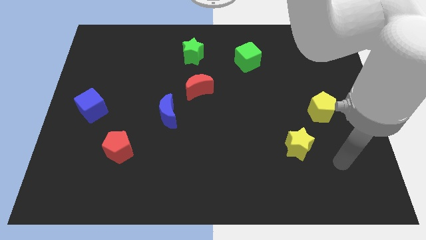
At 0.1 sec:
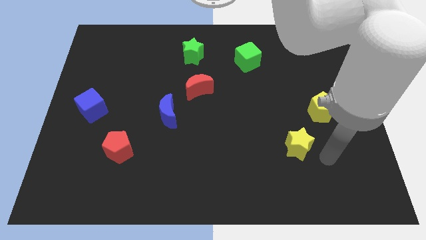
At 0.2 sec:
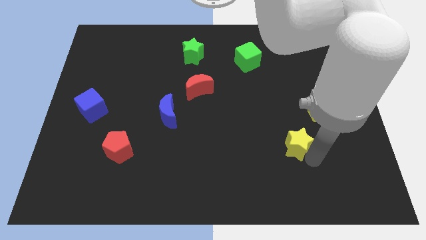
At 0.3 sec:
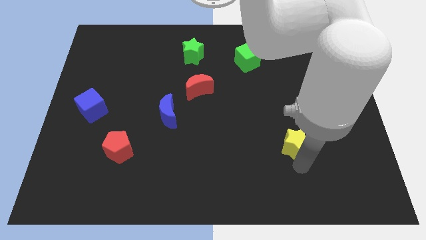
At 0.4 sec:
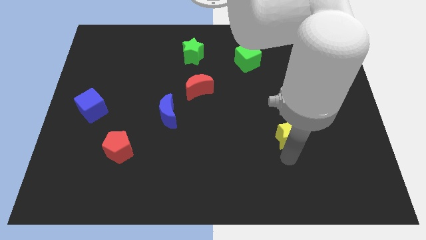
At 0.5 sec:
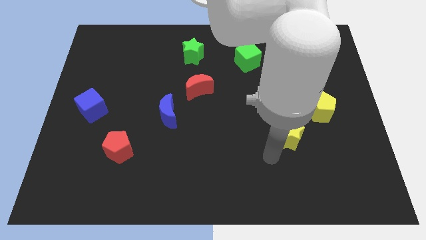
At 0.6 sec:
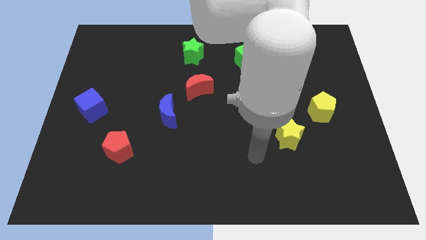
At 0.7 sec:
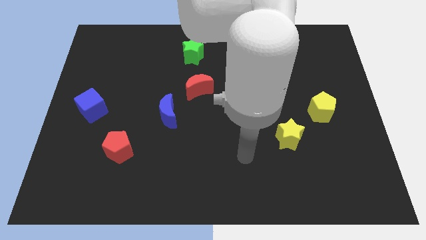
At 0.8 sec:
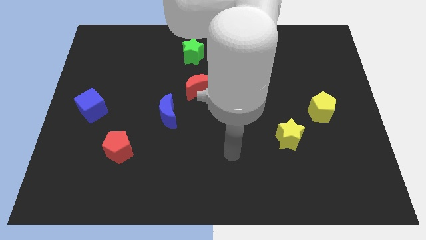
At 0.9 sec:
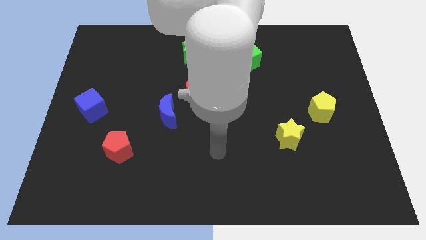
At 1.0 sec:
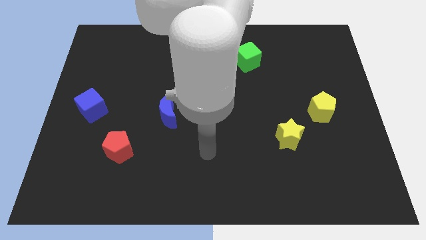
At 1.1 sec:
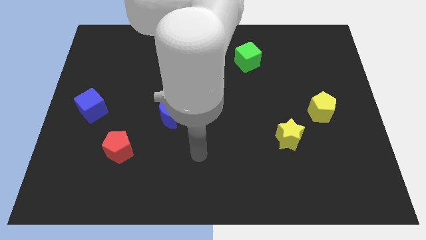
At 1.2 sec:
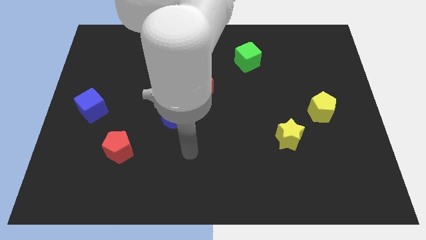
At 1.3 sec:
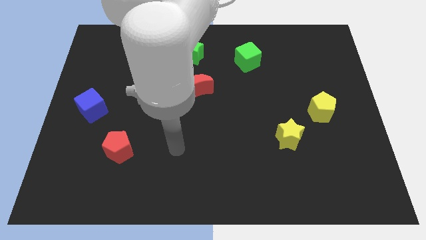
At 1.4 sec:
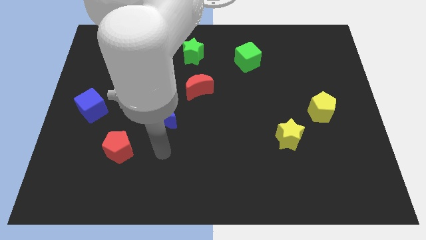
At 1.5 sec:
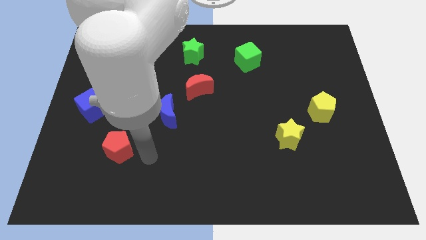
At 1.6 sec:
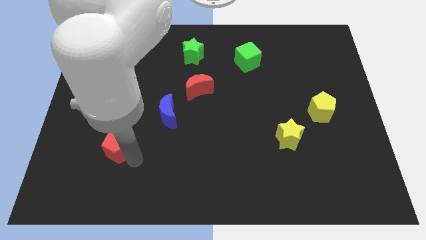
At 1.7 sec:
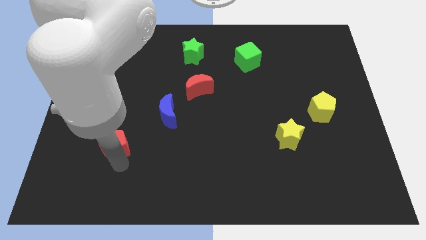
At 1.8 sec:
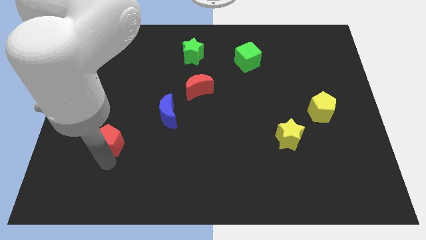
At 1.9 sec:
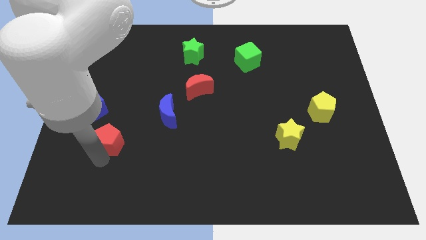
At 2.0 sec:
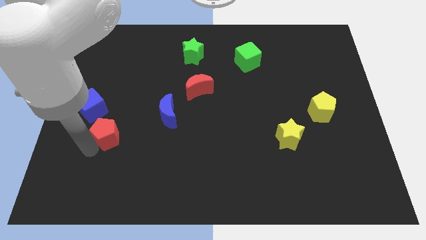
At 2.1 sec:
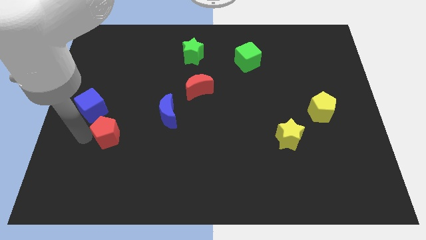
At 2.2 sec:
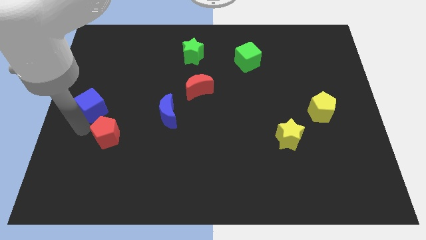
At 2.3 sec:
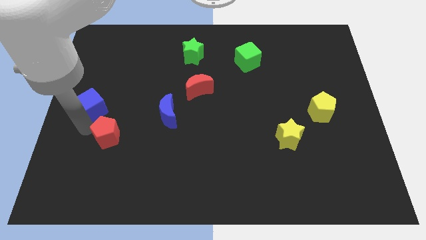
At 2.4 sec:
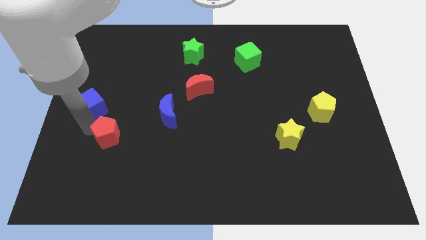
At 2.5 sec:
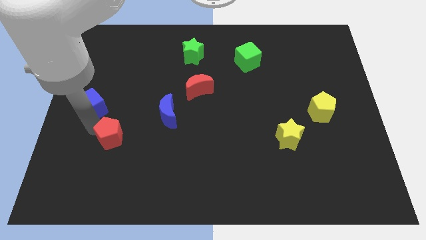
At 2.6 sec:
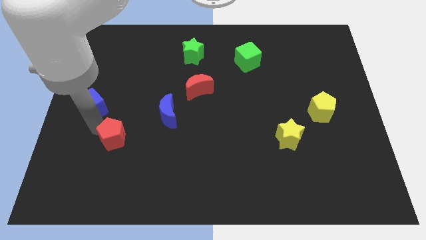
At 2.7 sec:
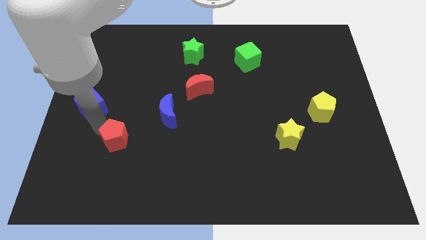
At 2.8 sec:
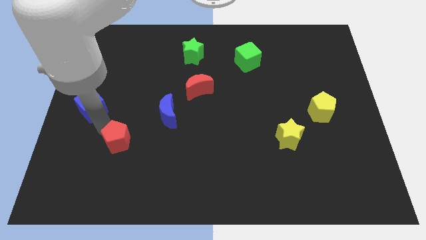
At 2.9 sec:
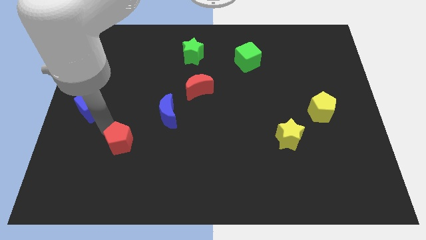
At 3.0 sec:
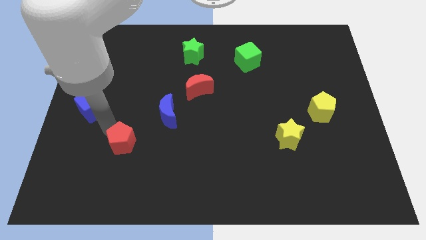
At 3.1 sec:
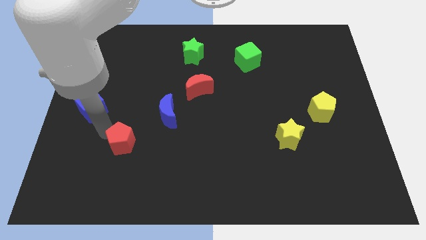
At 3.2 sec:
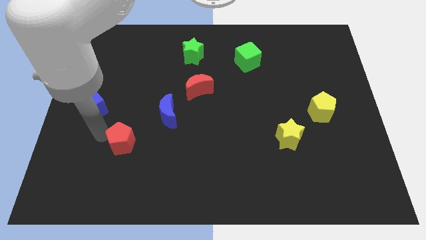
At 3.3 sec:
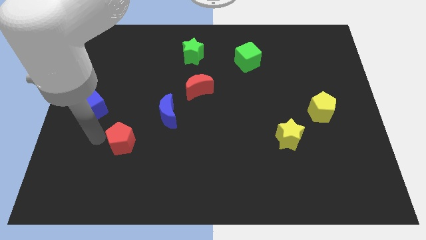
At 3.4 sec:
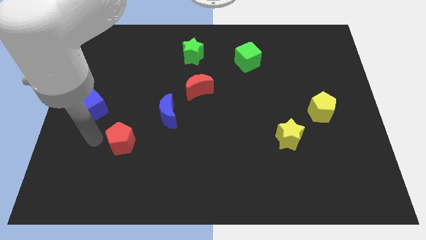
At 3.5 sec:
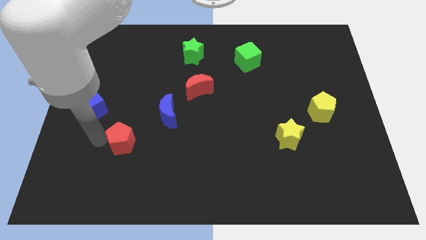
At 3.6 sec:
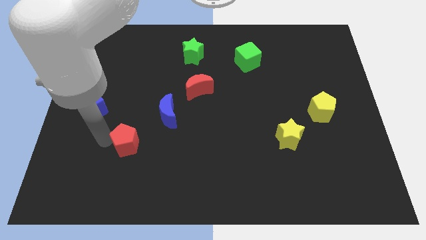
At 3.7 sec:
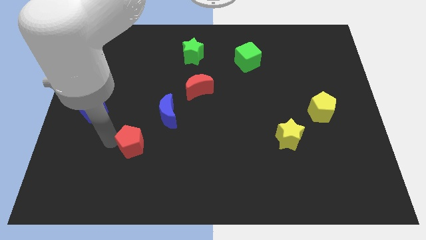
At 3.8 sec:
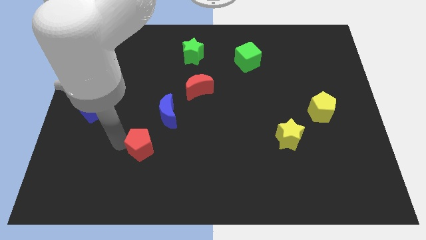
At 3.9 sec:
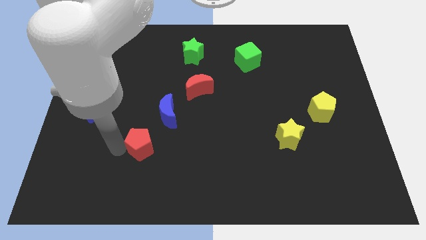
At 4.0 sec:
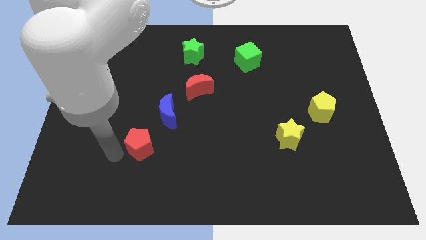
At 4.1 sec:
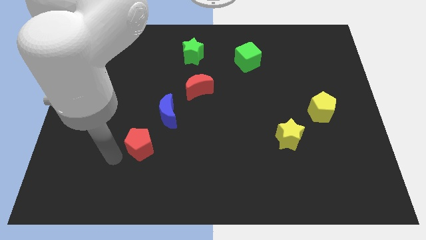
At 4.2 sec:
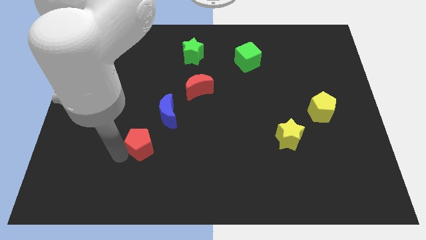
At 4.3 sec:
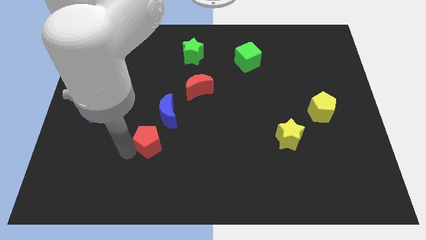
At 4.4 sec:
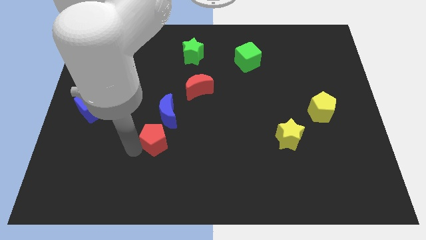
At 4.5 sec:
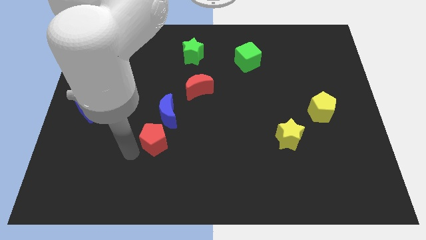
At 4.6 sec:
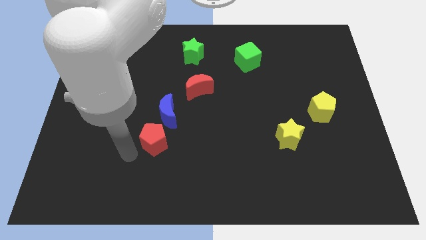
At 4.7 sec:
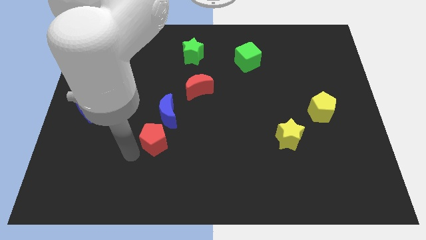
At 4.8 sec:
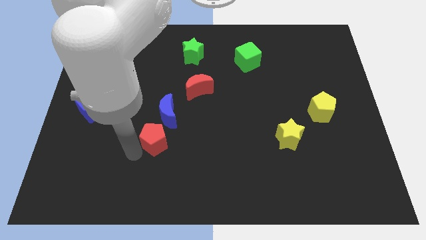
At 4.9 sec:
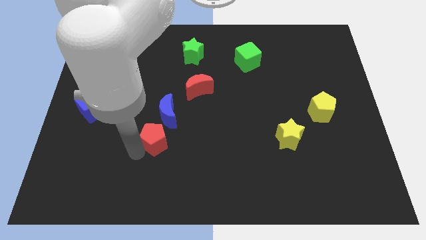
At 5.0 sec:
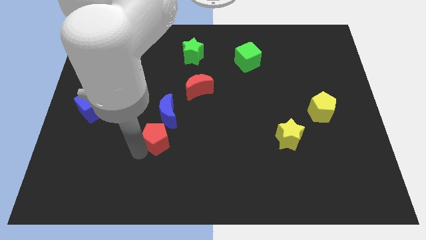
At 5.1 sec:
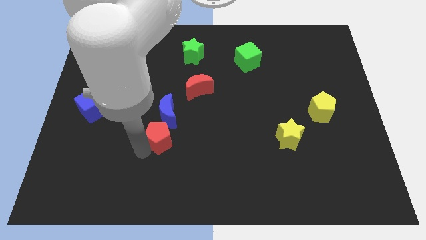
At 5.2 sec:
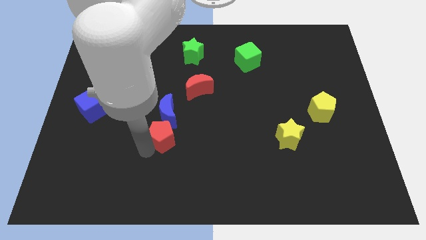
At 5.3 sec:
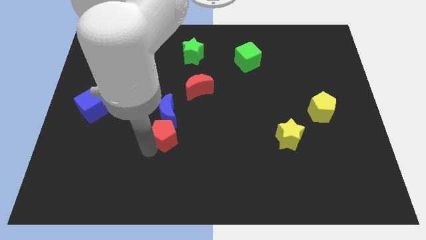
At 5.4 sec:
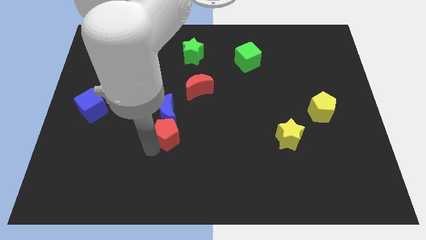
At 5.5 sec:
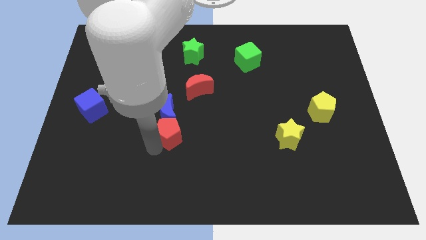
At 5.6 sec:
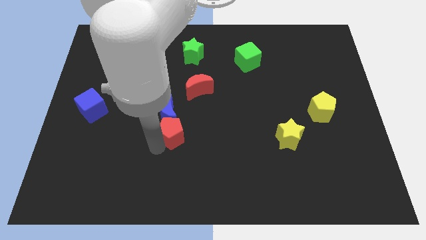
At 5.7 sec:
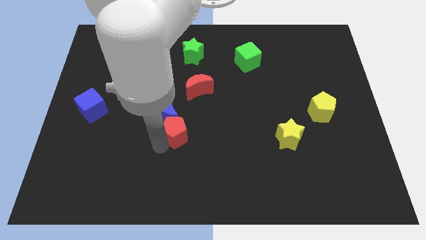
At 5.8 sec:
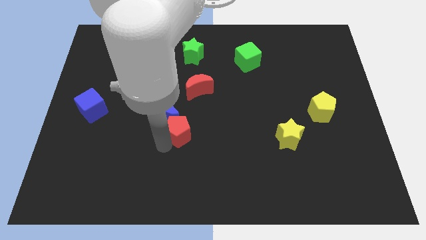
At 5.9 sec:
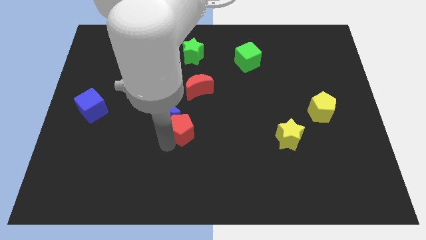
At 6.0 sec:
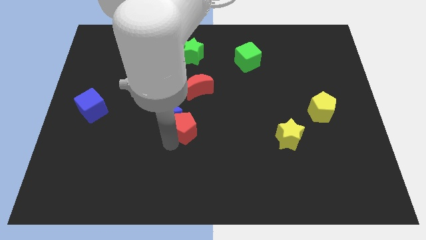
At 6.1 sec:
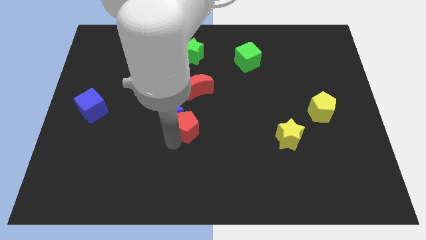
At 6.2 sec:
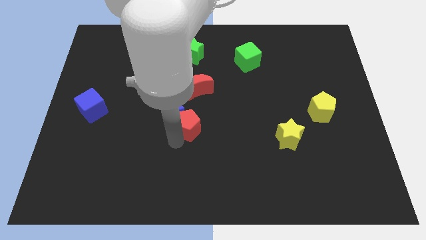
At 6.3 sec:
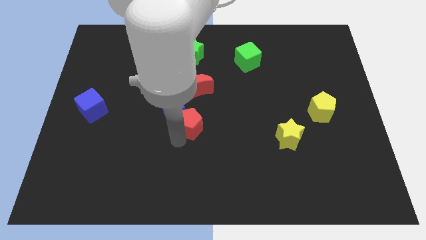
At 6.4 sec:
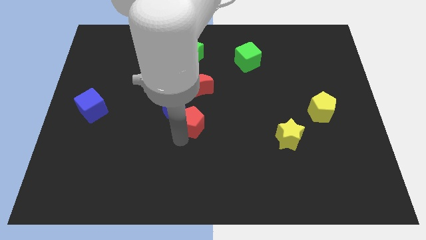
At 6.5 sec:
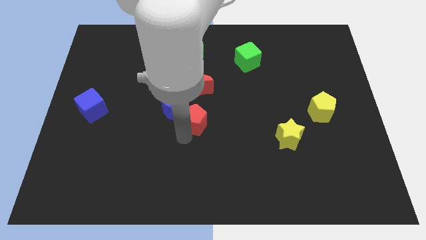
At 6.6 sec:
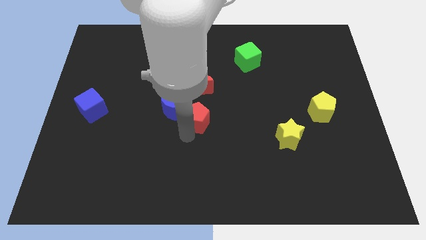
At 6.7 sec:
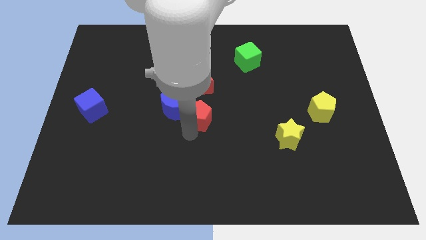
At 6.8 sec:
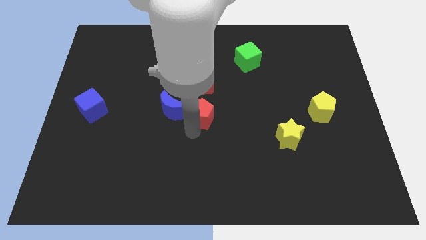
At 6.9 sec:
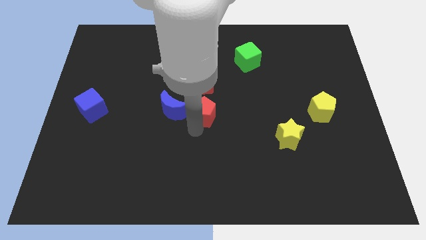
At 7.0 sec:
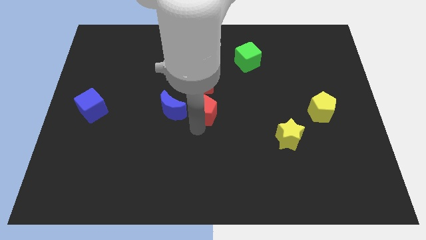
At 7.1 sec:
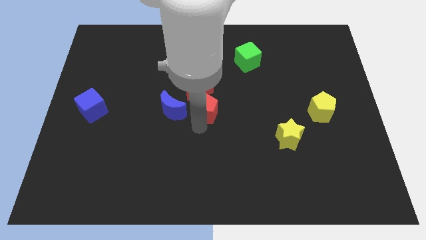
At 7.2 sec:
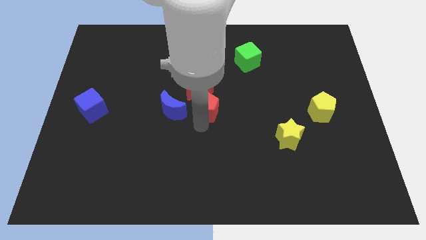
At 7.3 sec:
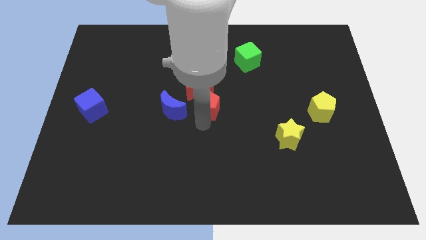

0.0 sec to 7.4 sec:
slide the red pentagon up and then right

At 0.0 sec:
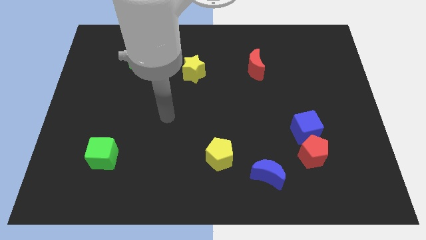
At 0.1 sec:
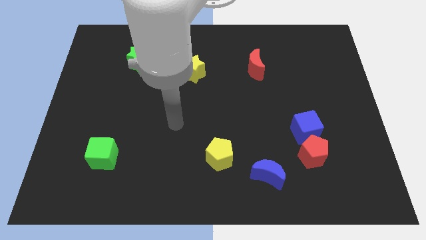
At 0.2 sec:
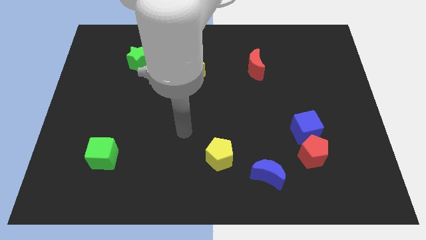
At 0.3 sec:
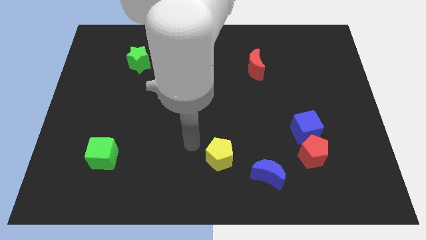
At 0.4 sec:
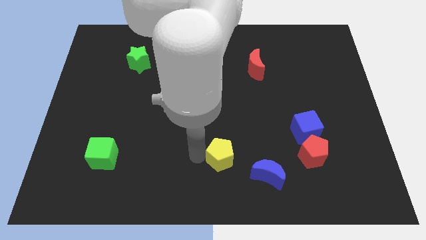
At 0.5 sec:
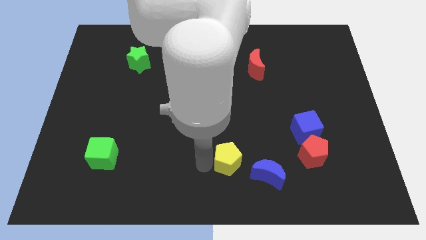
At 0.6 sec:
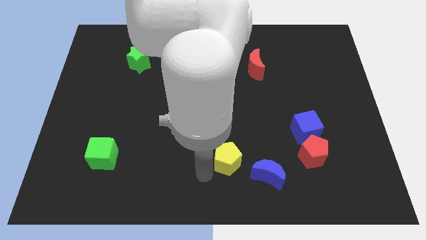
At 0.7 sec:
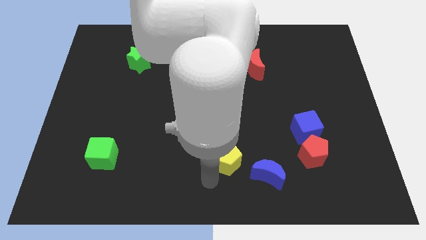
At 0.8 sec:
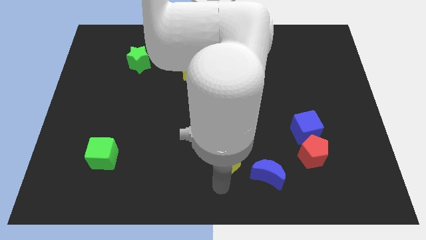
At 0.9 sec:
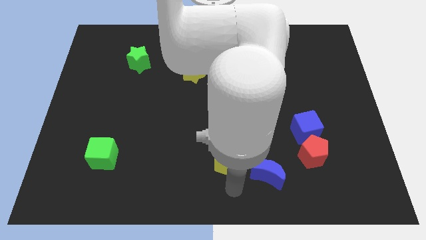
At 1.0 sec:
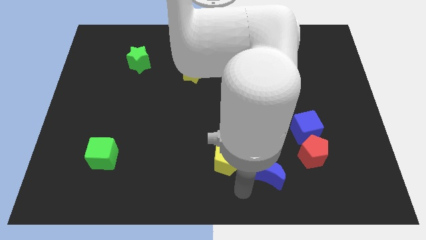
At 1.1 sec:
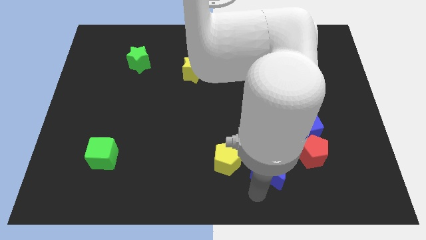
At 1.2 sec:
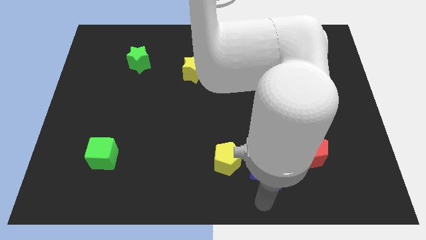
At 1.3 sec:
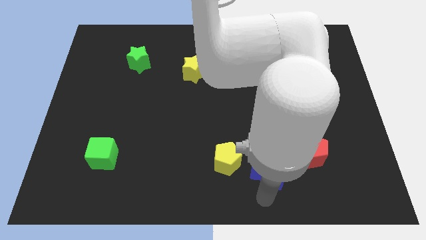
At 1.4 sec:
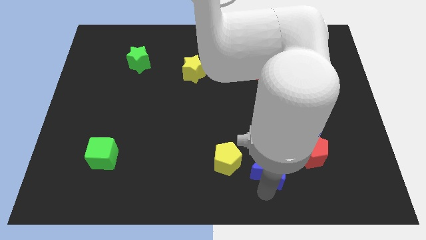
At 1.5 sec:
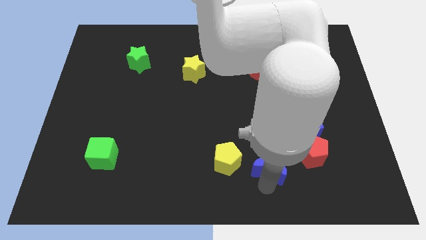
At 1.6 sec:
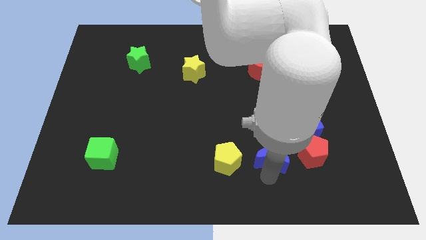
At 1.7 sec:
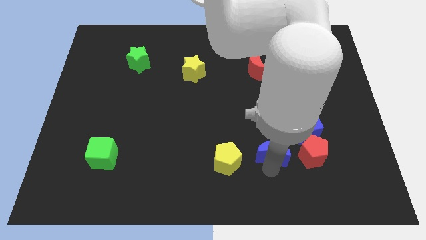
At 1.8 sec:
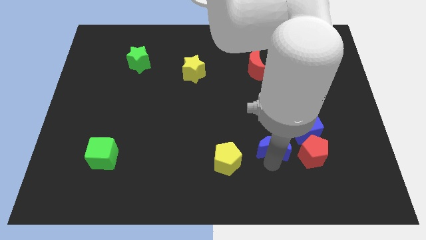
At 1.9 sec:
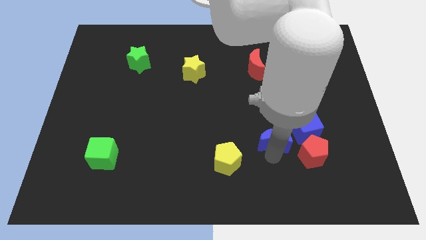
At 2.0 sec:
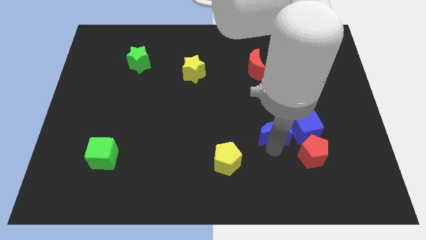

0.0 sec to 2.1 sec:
slide the blue moon diagonally upwards and to the right somewhat
